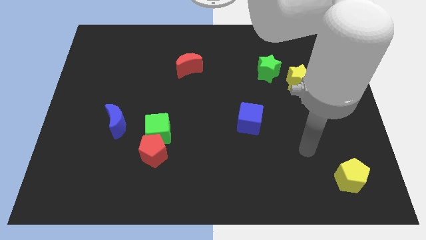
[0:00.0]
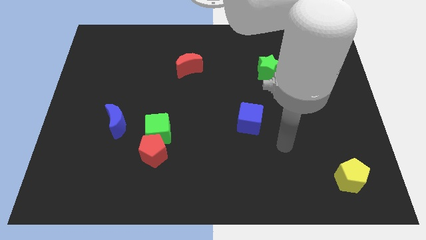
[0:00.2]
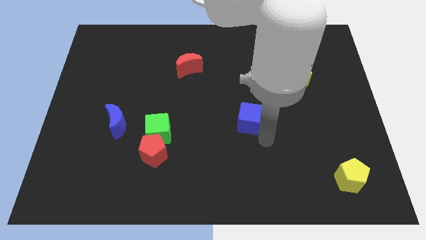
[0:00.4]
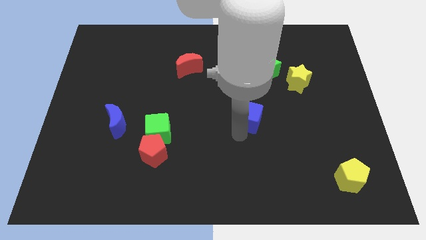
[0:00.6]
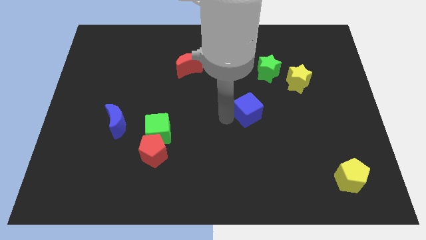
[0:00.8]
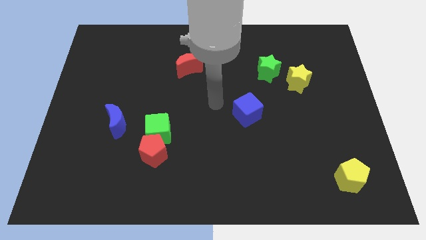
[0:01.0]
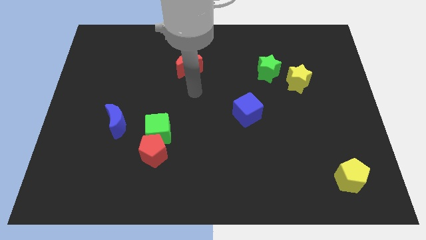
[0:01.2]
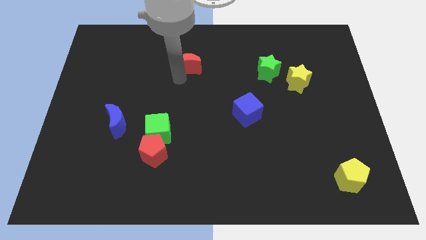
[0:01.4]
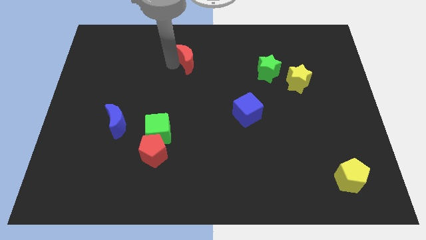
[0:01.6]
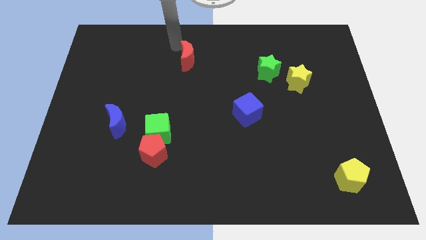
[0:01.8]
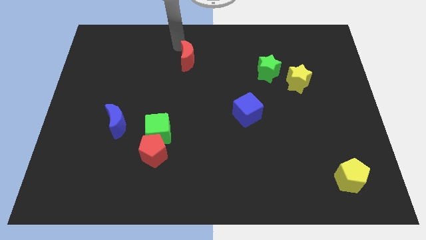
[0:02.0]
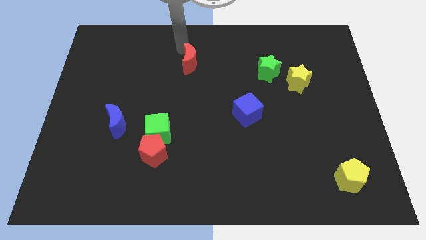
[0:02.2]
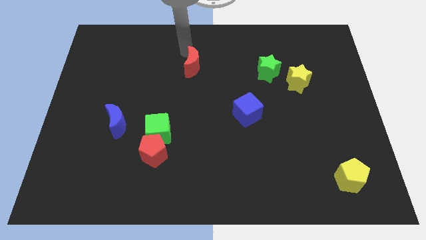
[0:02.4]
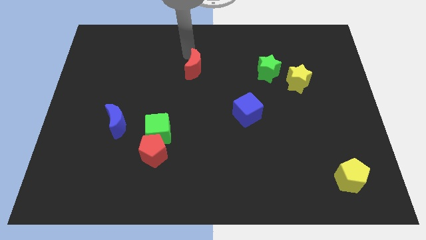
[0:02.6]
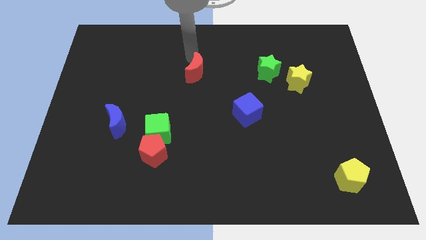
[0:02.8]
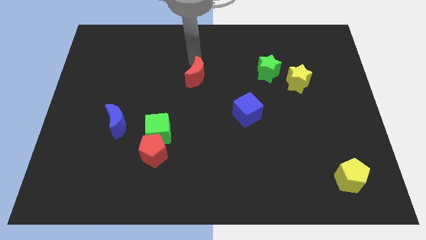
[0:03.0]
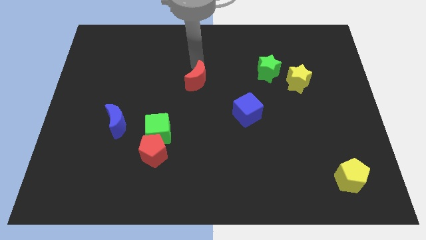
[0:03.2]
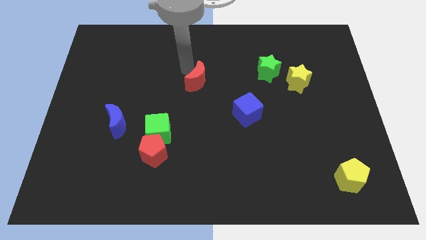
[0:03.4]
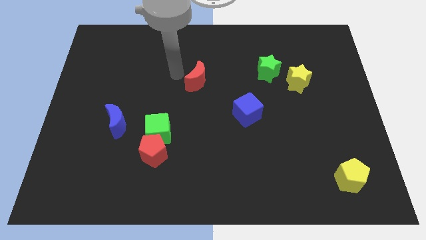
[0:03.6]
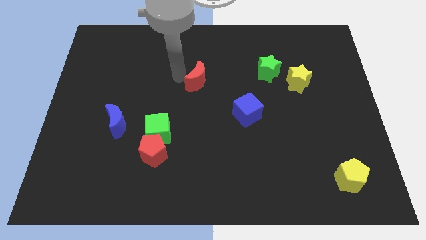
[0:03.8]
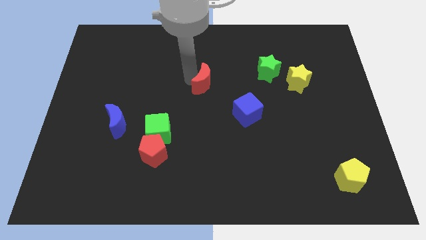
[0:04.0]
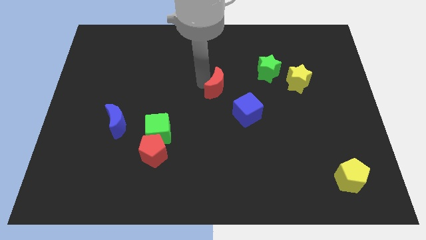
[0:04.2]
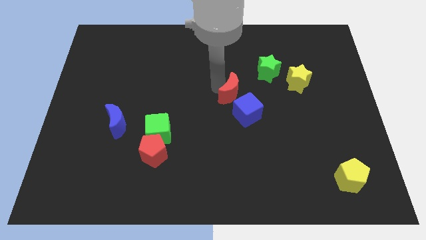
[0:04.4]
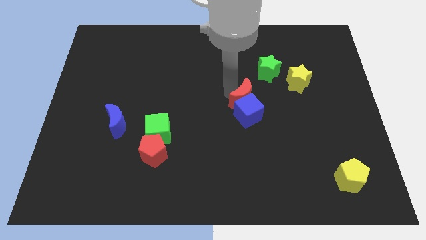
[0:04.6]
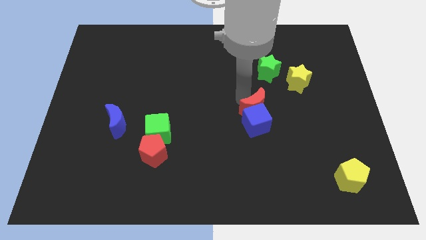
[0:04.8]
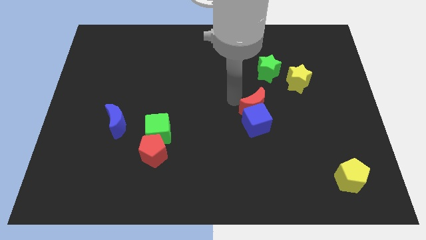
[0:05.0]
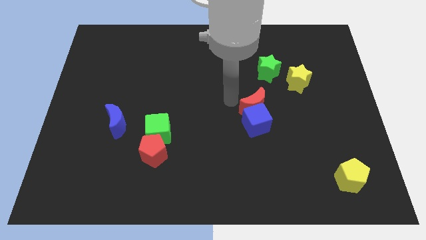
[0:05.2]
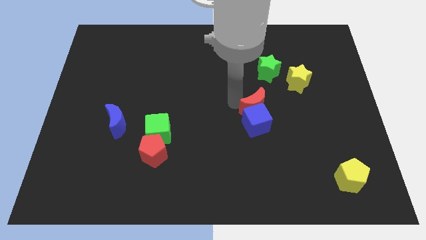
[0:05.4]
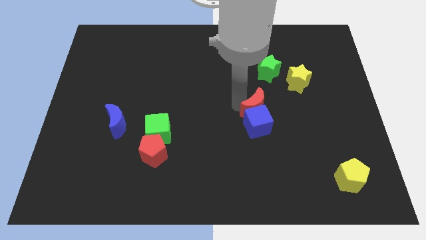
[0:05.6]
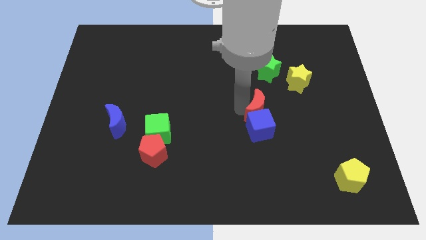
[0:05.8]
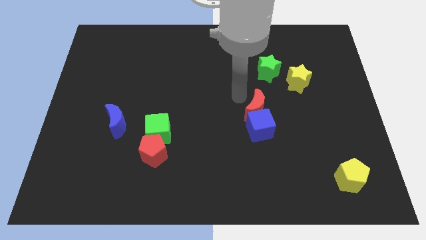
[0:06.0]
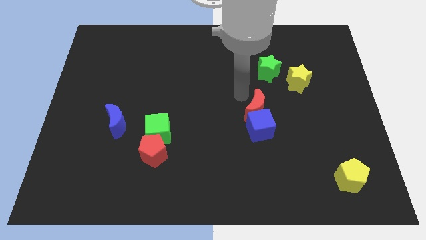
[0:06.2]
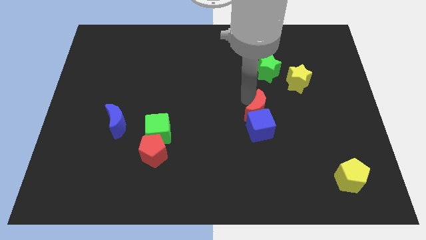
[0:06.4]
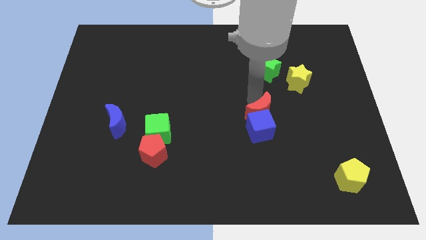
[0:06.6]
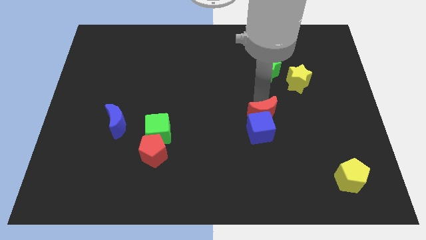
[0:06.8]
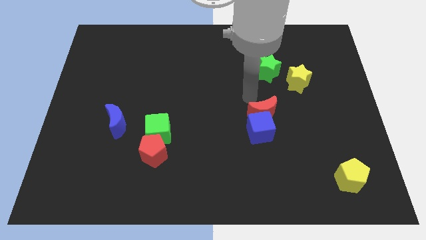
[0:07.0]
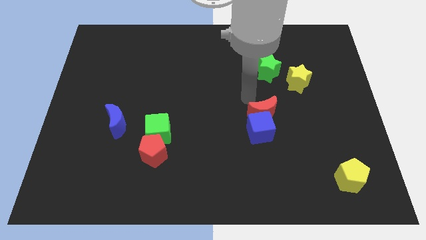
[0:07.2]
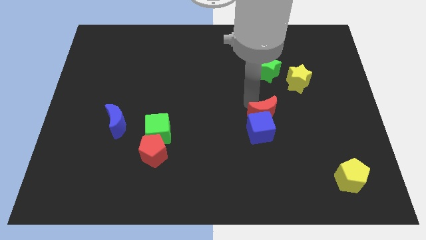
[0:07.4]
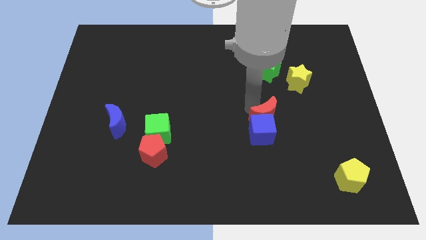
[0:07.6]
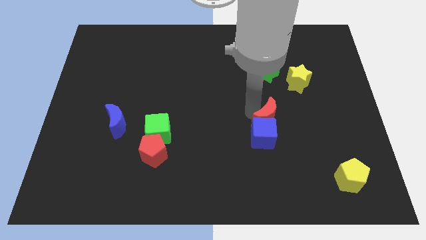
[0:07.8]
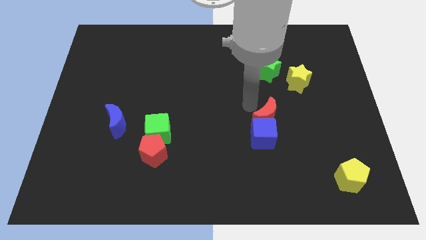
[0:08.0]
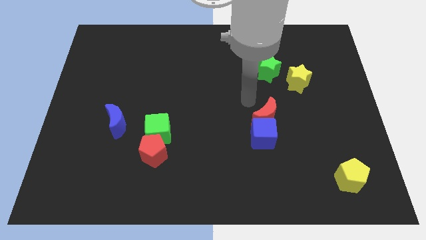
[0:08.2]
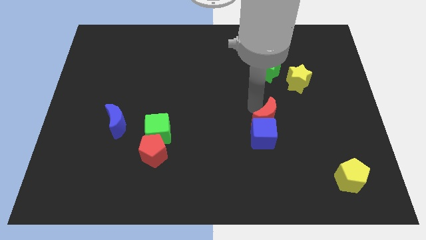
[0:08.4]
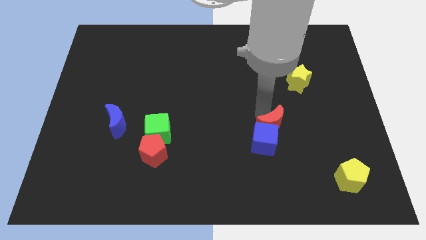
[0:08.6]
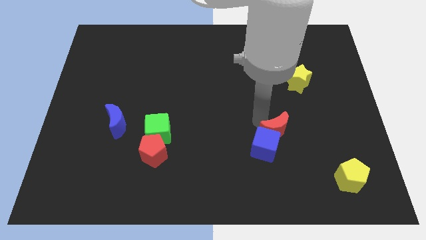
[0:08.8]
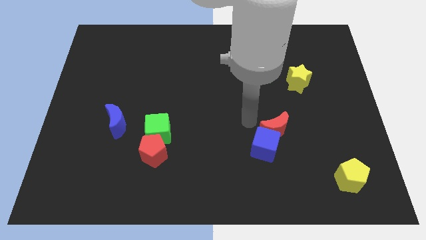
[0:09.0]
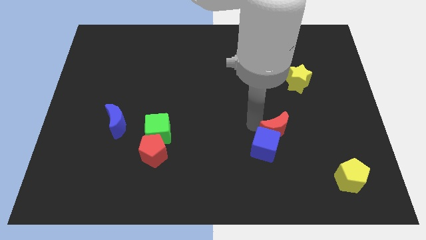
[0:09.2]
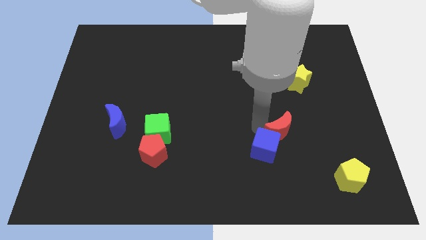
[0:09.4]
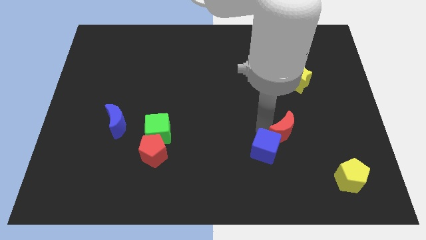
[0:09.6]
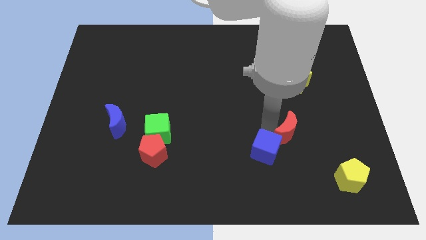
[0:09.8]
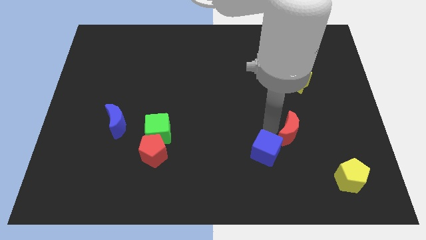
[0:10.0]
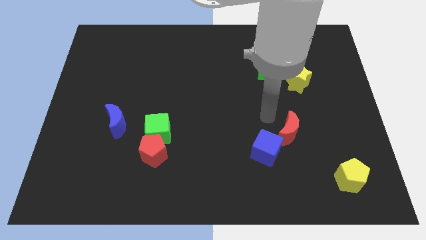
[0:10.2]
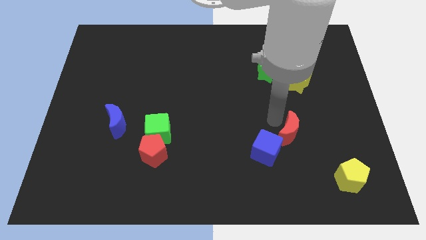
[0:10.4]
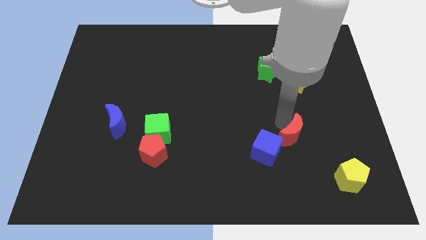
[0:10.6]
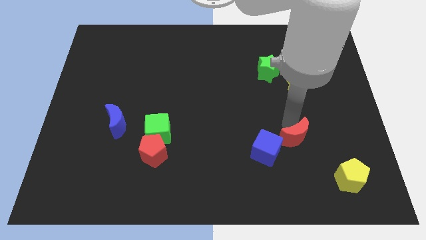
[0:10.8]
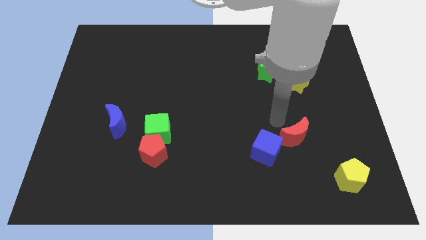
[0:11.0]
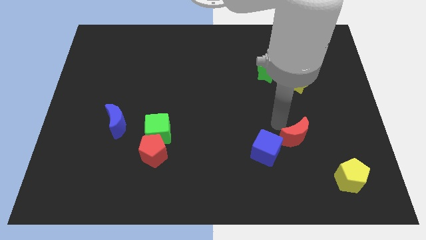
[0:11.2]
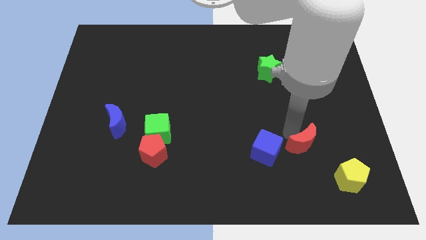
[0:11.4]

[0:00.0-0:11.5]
push the red moon diagonally up and to the left of the yellow pentagon

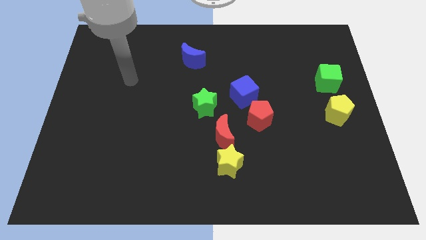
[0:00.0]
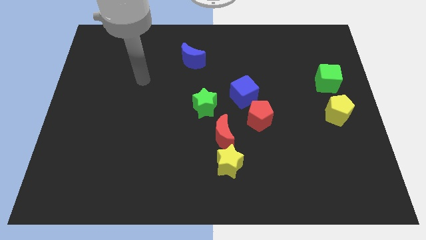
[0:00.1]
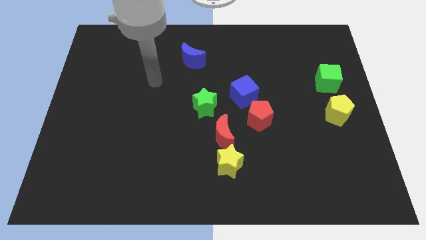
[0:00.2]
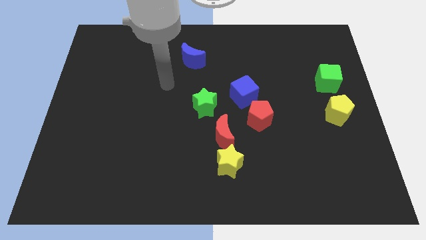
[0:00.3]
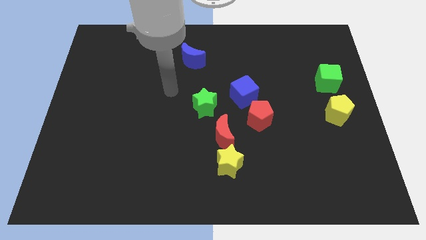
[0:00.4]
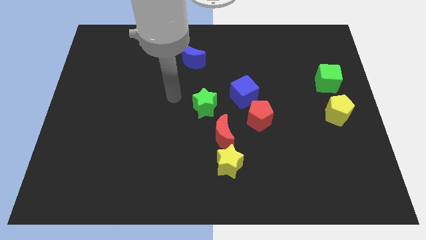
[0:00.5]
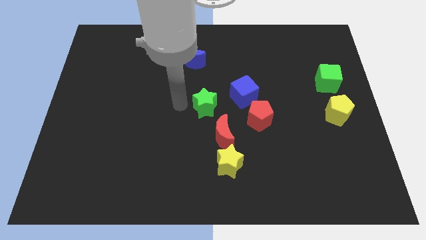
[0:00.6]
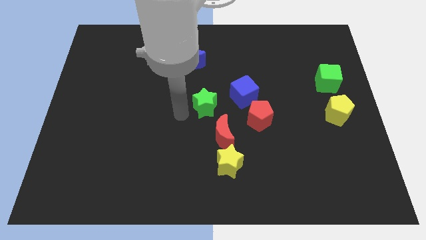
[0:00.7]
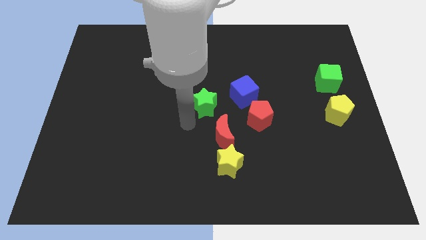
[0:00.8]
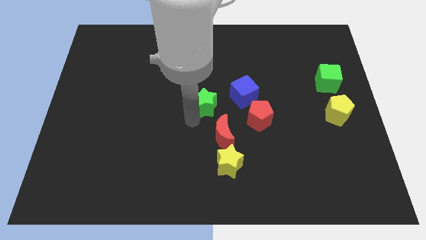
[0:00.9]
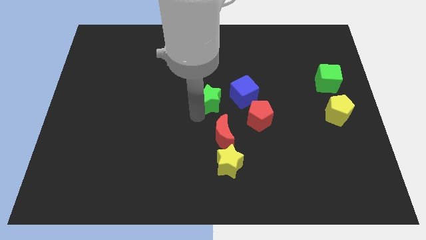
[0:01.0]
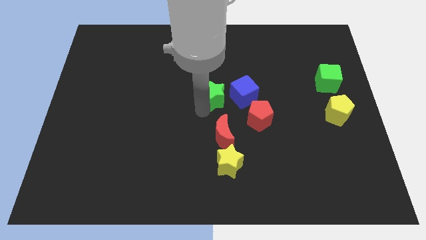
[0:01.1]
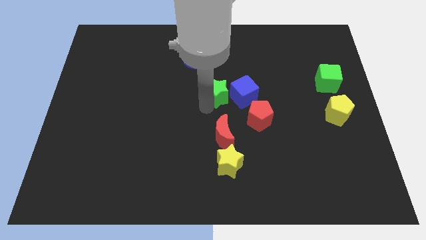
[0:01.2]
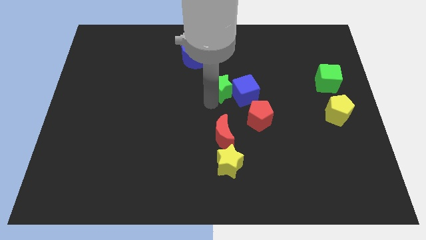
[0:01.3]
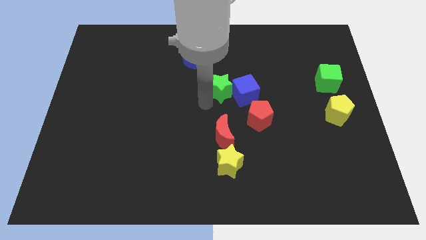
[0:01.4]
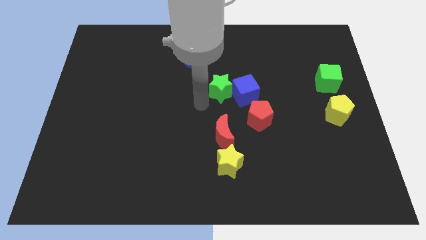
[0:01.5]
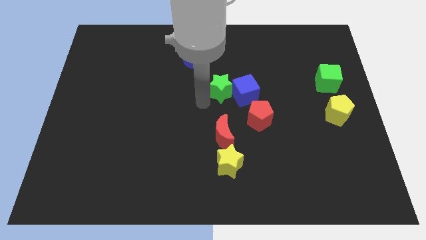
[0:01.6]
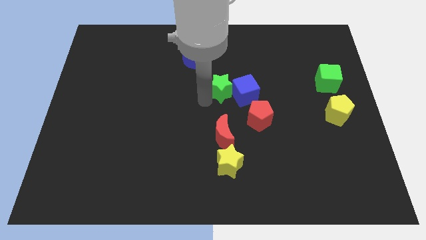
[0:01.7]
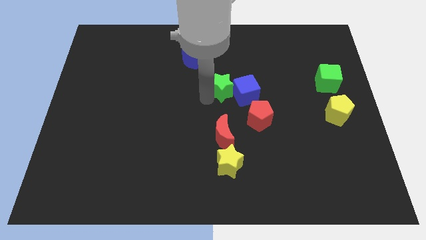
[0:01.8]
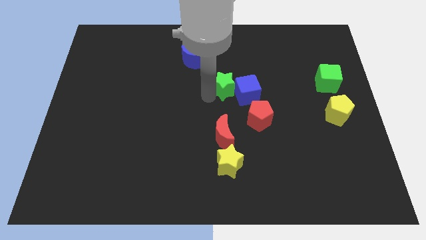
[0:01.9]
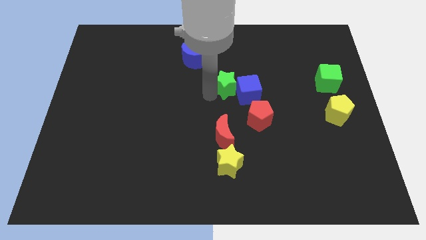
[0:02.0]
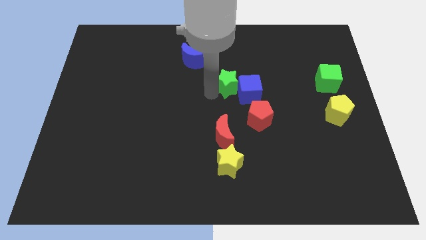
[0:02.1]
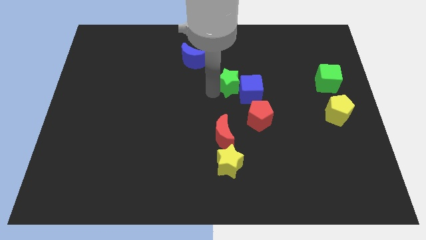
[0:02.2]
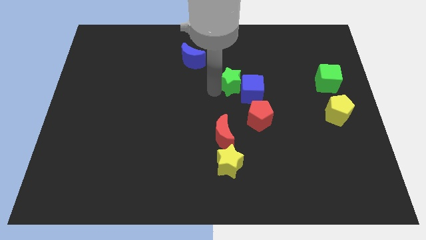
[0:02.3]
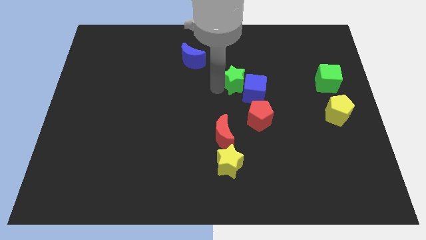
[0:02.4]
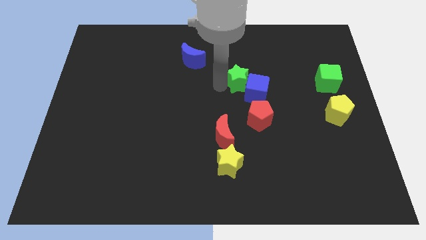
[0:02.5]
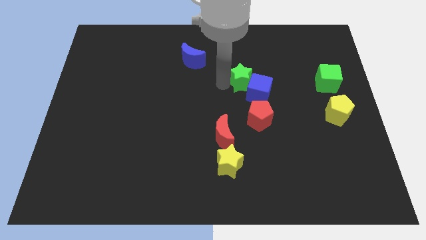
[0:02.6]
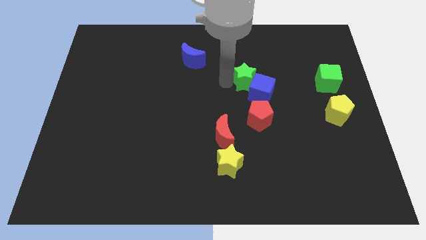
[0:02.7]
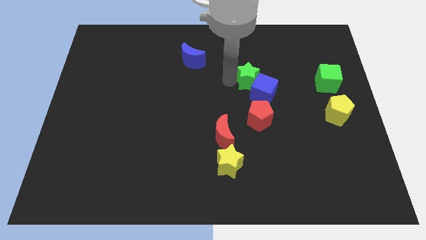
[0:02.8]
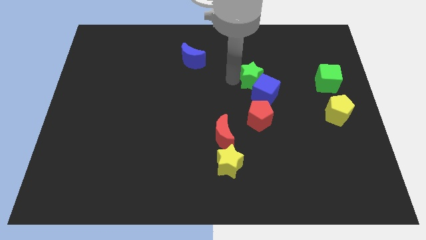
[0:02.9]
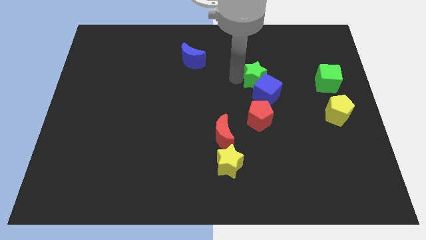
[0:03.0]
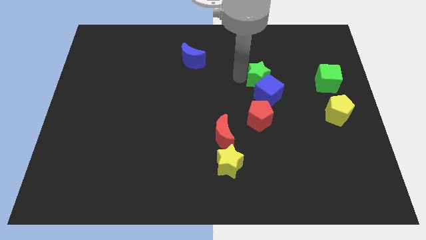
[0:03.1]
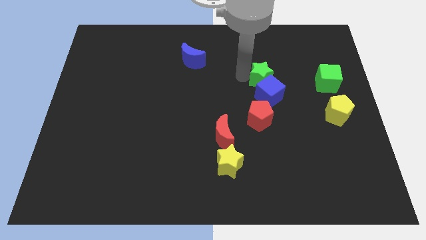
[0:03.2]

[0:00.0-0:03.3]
slide the green star diagonally up and to the right of the blue cube
